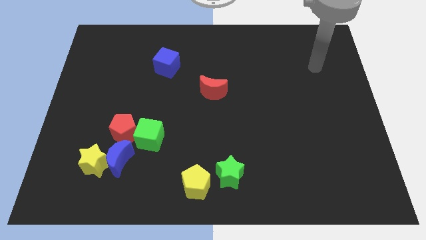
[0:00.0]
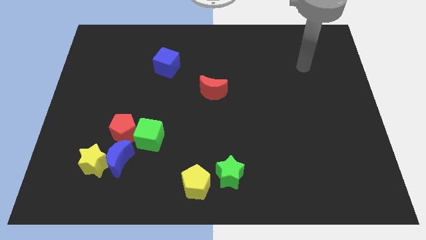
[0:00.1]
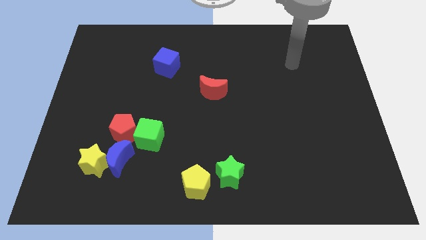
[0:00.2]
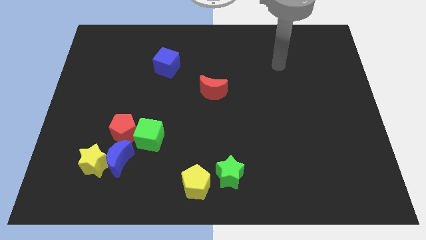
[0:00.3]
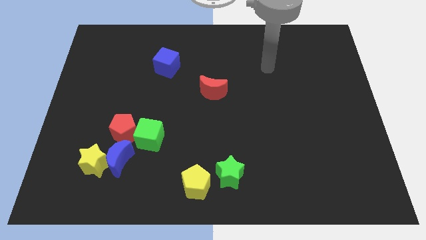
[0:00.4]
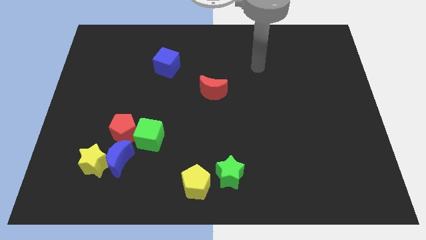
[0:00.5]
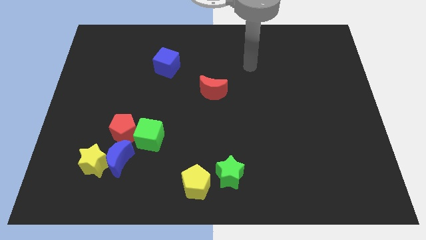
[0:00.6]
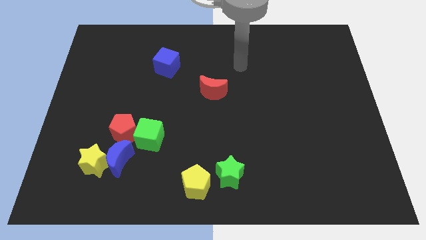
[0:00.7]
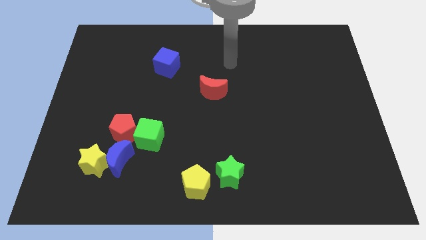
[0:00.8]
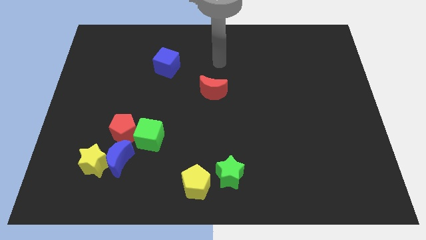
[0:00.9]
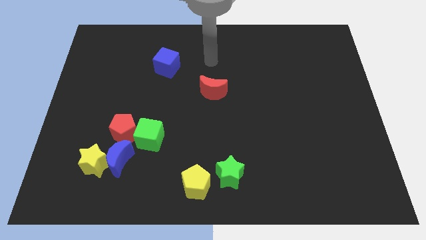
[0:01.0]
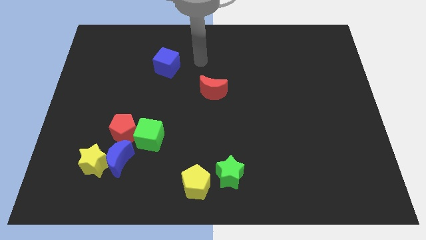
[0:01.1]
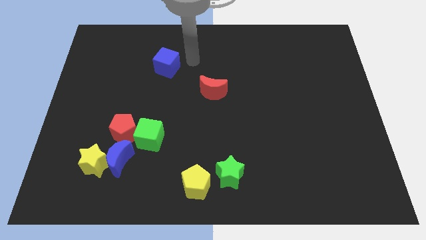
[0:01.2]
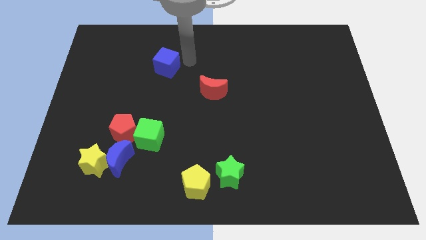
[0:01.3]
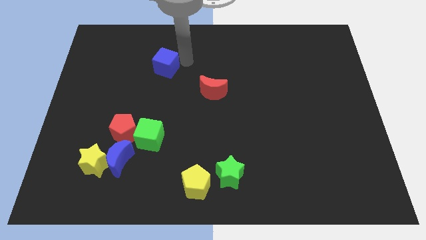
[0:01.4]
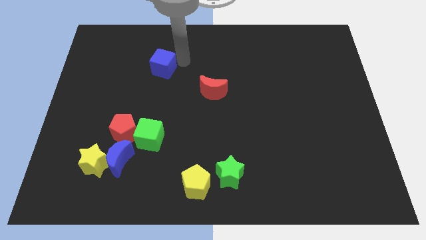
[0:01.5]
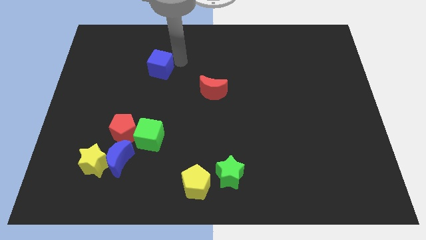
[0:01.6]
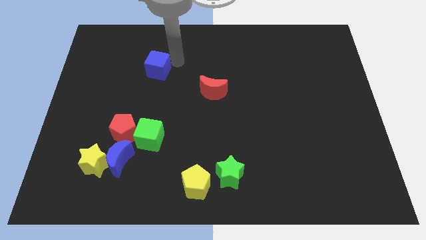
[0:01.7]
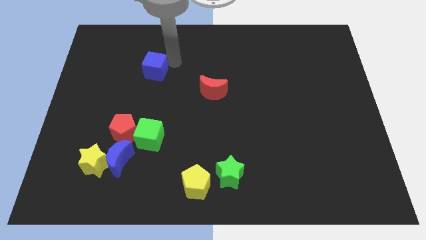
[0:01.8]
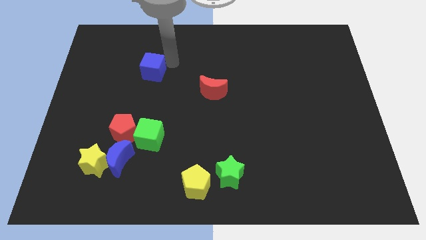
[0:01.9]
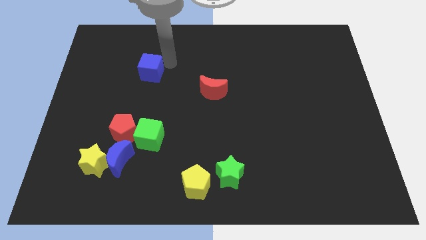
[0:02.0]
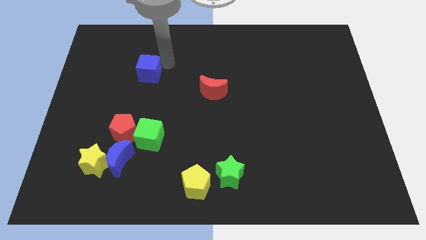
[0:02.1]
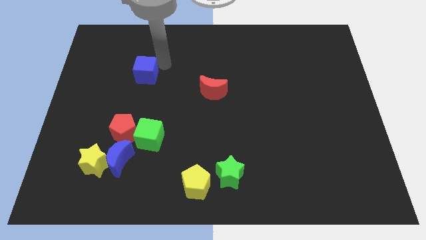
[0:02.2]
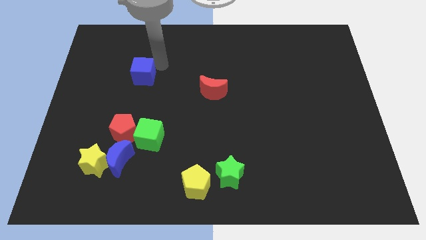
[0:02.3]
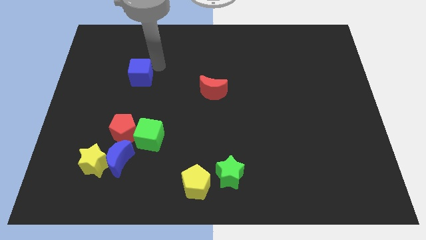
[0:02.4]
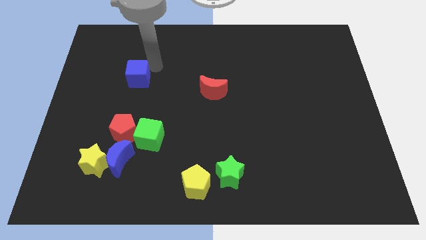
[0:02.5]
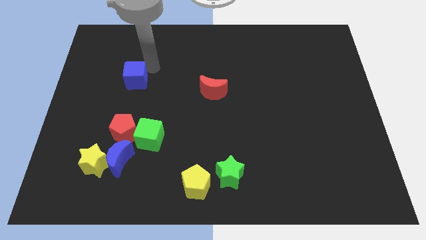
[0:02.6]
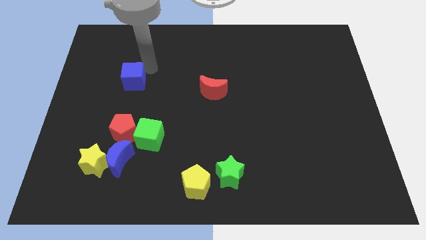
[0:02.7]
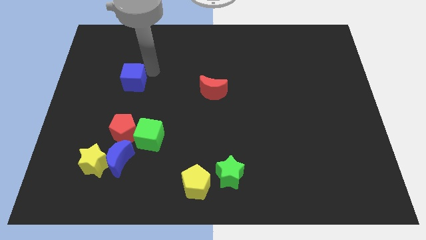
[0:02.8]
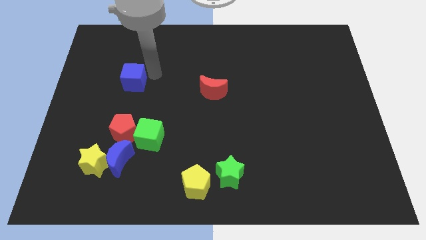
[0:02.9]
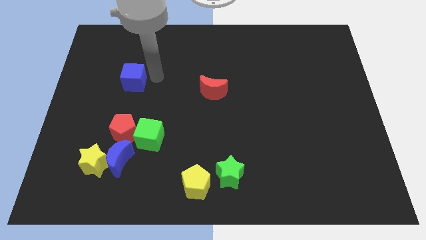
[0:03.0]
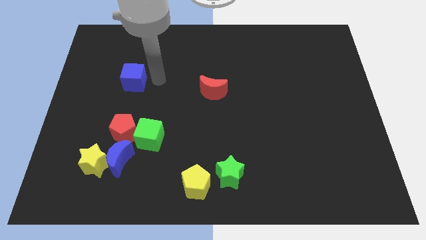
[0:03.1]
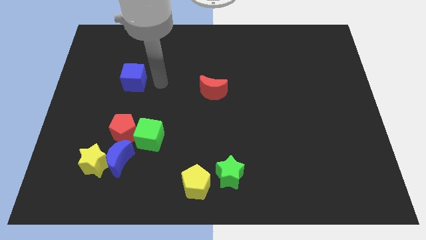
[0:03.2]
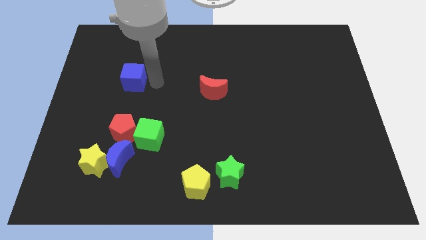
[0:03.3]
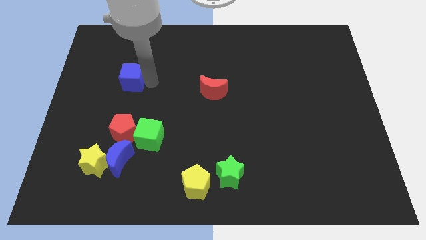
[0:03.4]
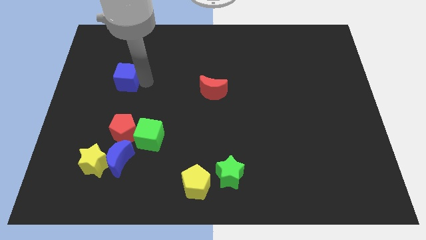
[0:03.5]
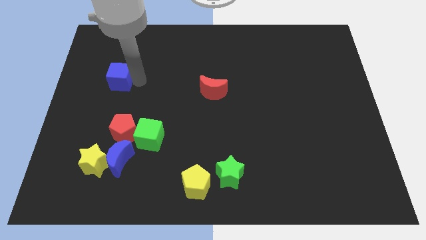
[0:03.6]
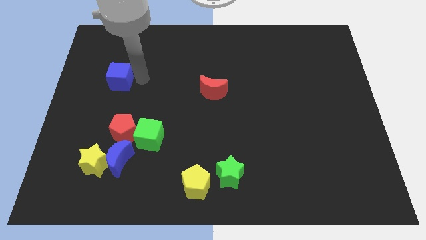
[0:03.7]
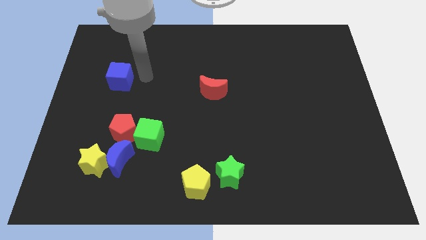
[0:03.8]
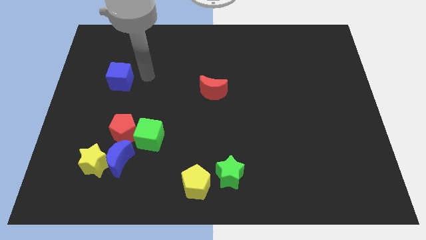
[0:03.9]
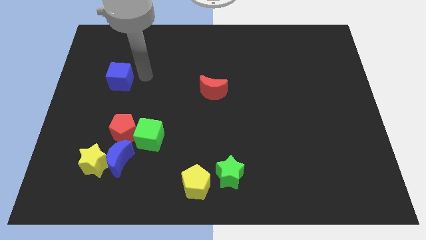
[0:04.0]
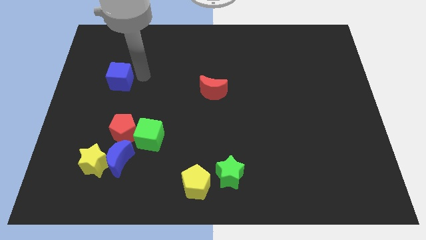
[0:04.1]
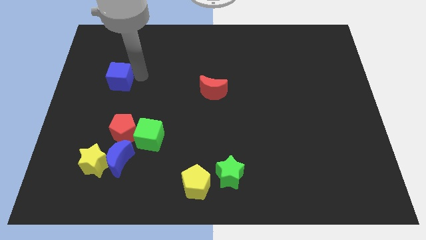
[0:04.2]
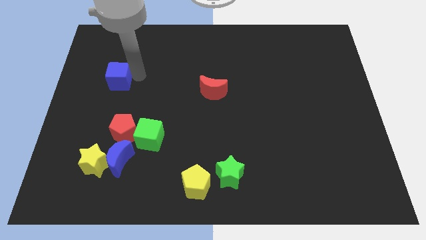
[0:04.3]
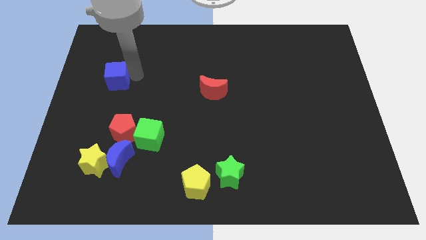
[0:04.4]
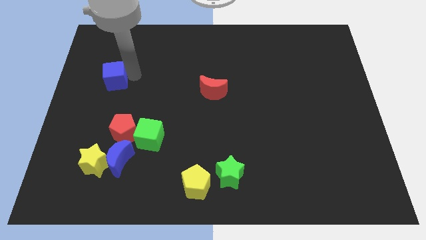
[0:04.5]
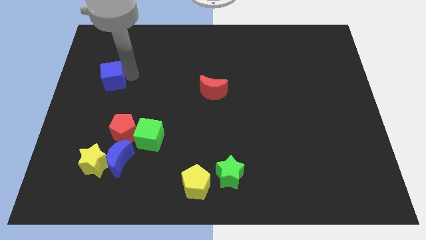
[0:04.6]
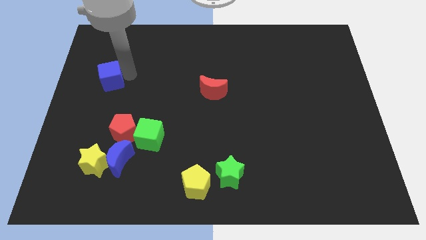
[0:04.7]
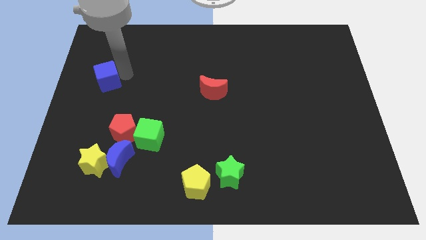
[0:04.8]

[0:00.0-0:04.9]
slide the blue cube to the left side of the board

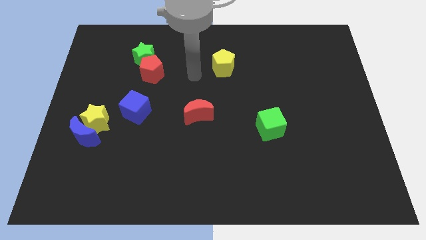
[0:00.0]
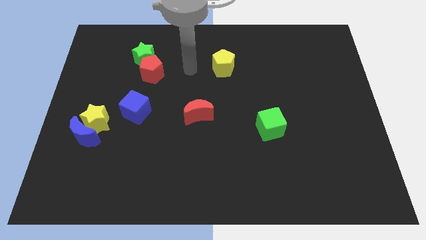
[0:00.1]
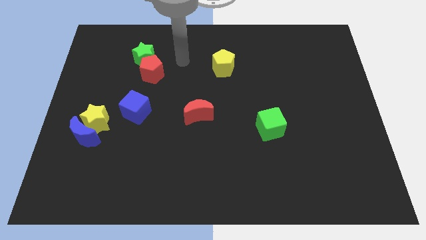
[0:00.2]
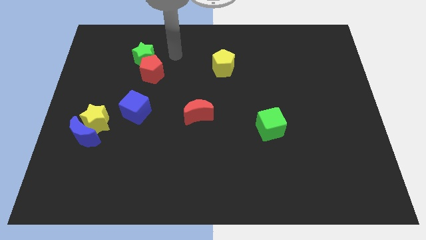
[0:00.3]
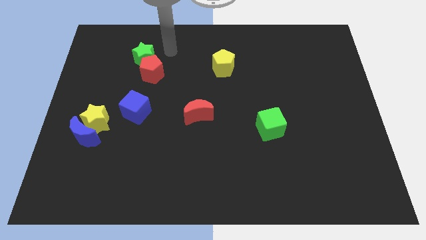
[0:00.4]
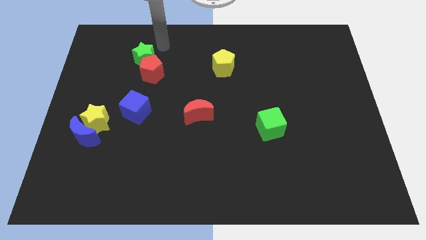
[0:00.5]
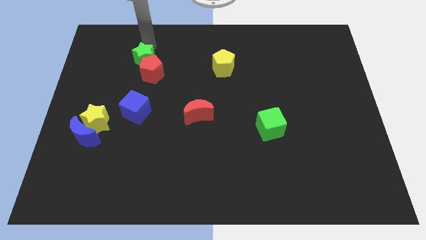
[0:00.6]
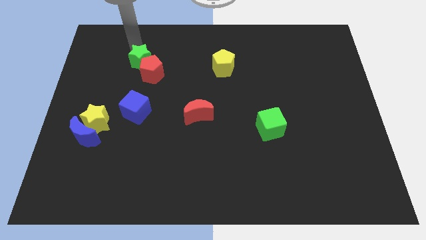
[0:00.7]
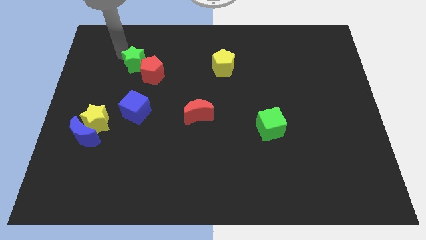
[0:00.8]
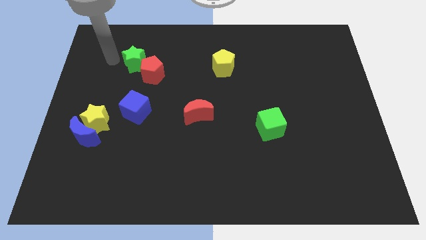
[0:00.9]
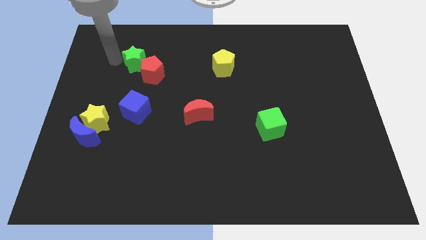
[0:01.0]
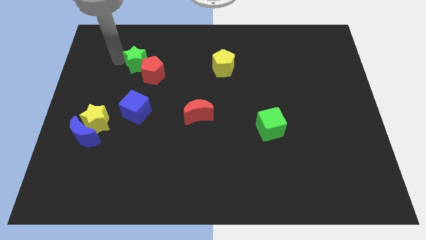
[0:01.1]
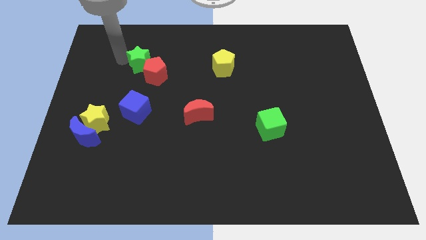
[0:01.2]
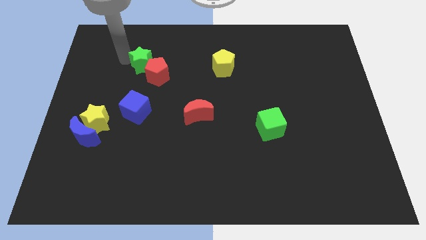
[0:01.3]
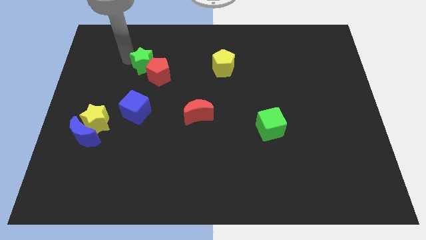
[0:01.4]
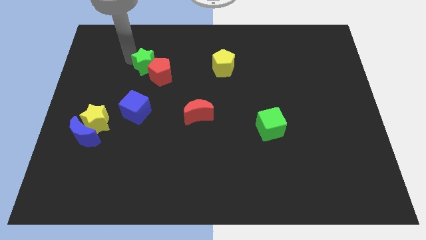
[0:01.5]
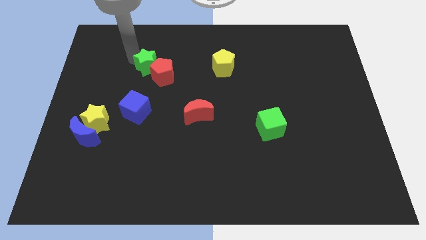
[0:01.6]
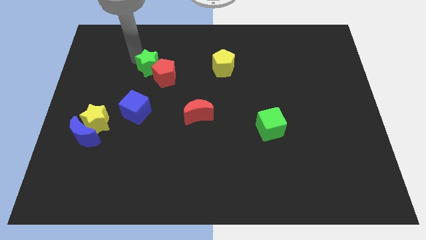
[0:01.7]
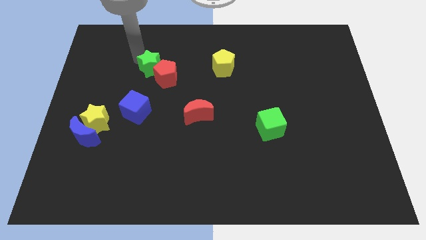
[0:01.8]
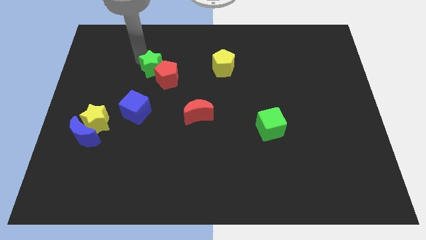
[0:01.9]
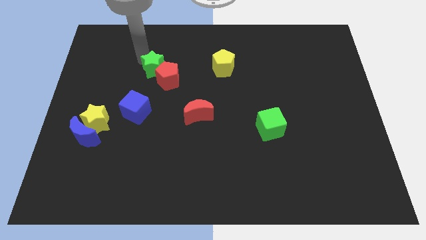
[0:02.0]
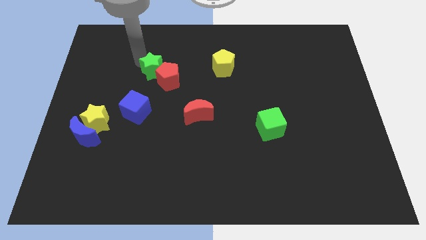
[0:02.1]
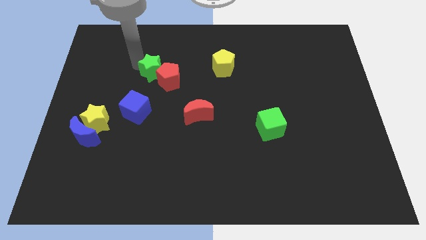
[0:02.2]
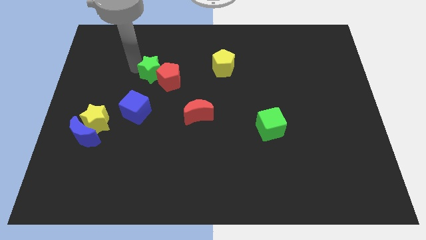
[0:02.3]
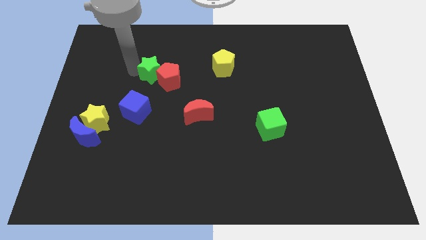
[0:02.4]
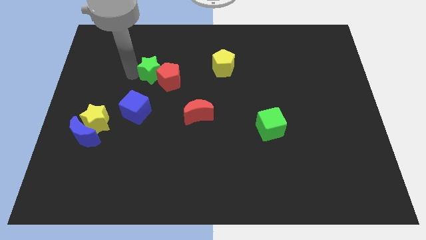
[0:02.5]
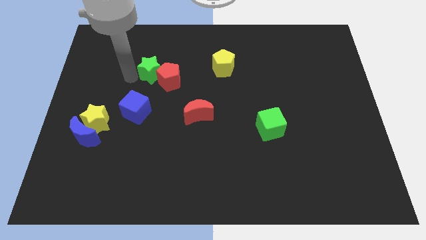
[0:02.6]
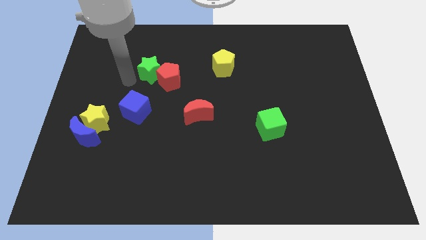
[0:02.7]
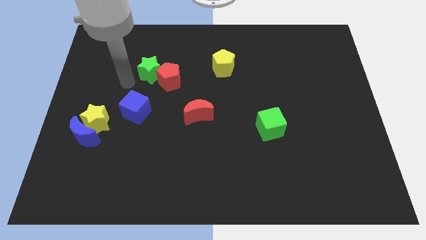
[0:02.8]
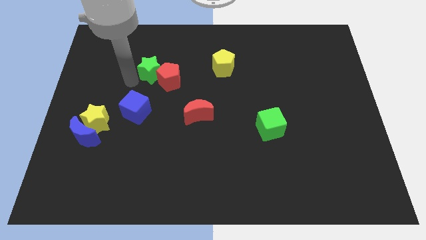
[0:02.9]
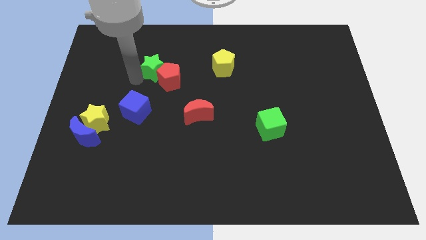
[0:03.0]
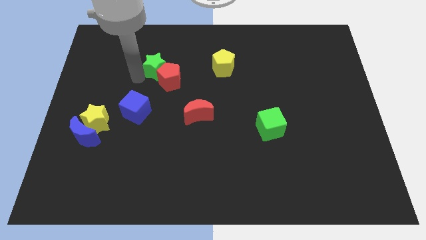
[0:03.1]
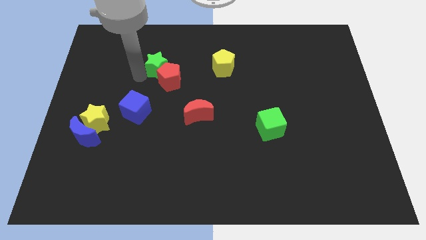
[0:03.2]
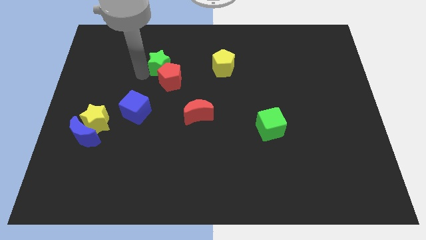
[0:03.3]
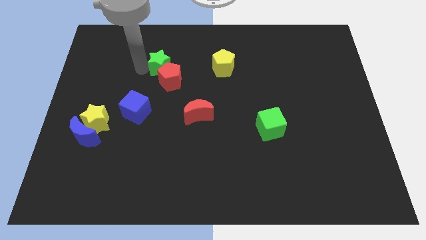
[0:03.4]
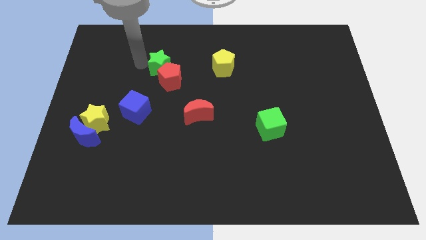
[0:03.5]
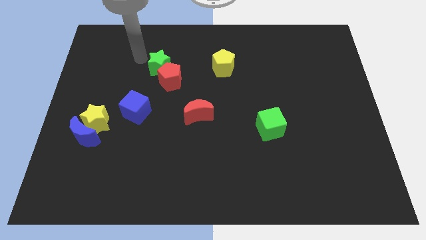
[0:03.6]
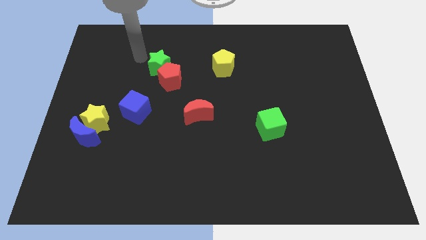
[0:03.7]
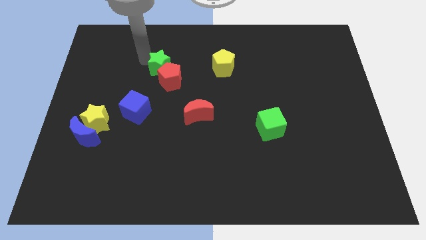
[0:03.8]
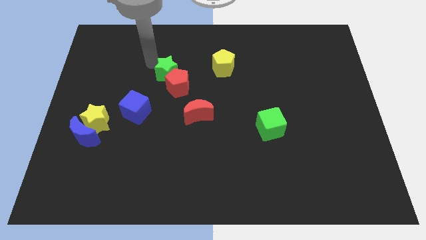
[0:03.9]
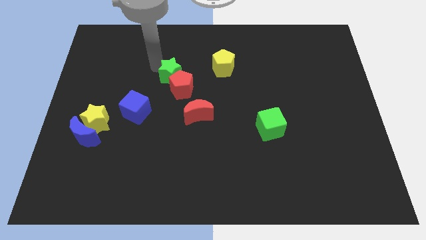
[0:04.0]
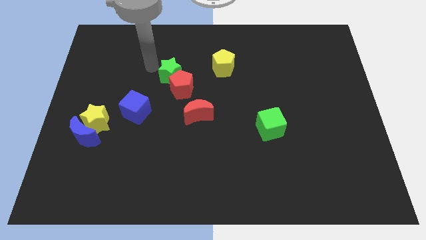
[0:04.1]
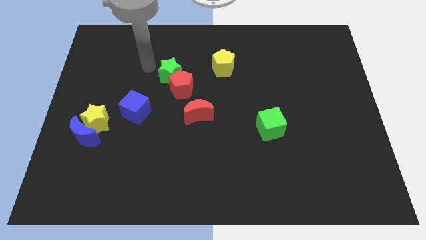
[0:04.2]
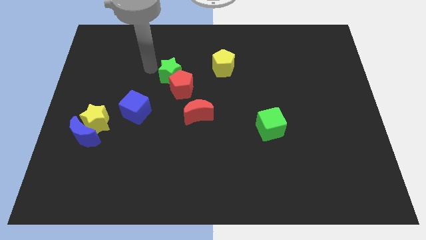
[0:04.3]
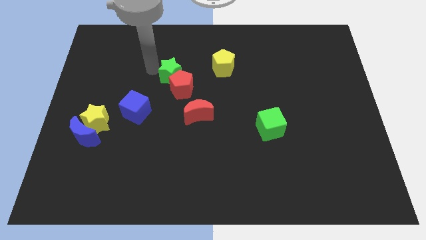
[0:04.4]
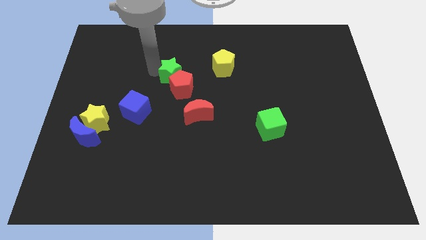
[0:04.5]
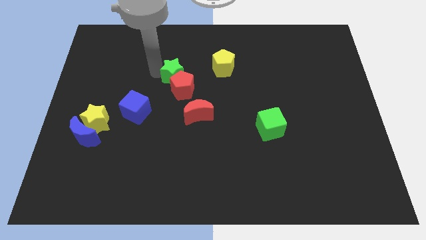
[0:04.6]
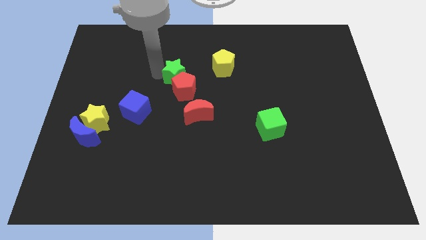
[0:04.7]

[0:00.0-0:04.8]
slide the green star to the center of the board
